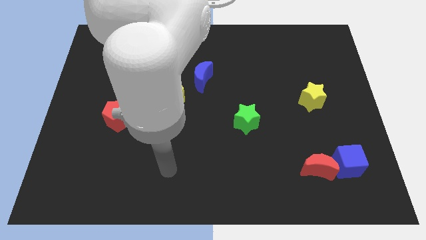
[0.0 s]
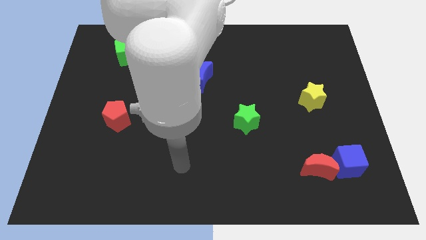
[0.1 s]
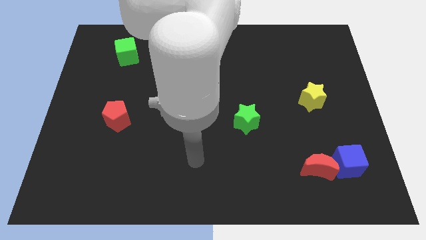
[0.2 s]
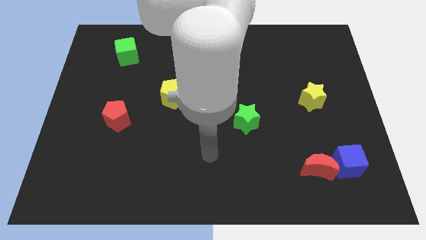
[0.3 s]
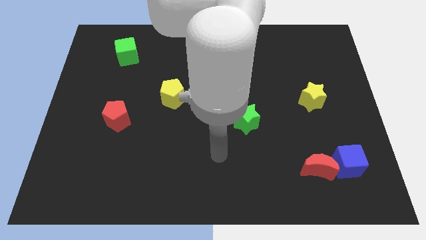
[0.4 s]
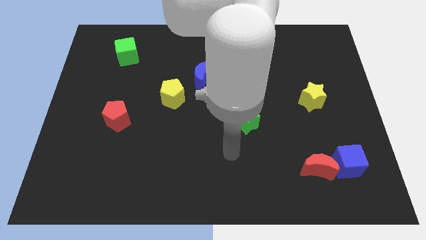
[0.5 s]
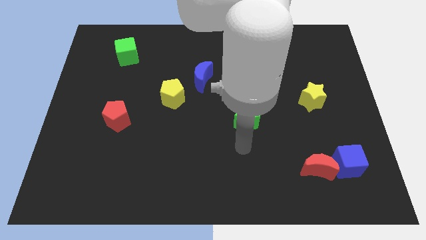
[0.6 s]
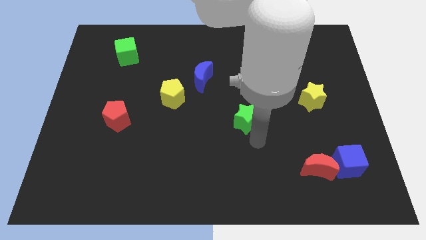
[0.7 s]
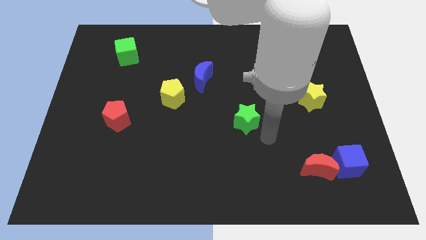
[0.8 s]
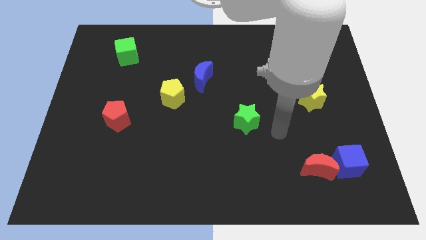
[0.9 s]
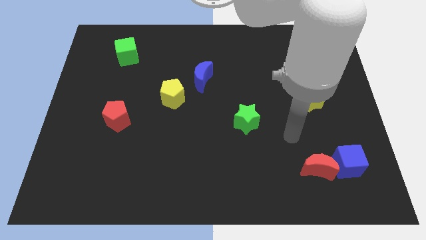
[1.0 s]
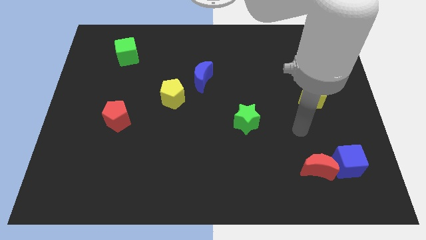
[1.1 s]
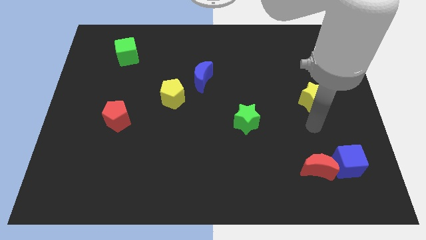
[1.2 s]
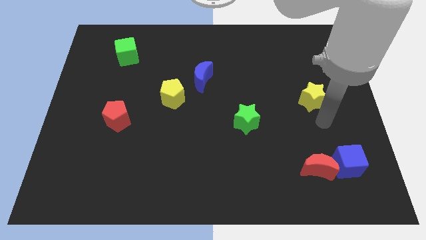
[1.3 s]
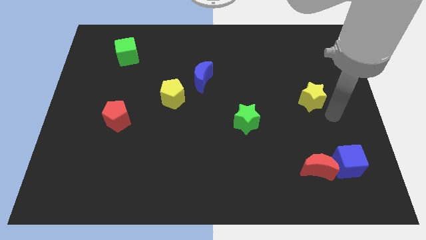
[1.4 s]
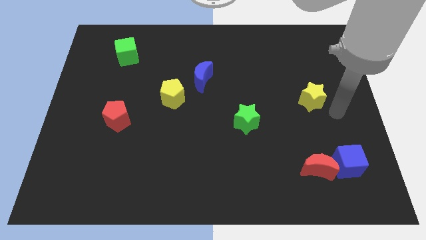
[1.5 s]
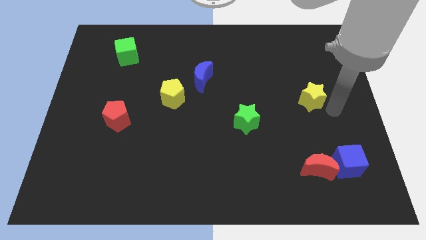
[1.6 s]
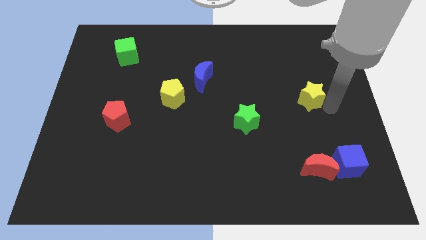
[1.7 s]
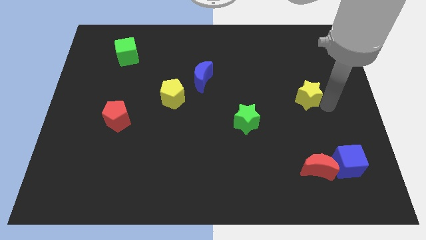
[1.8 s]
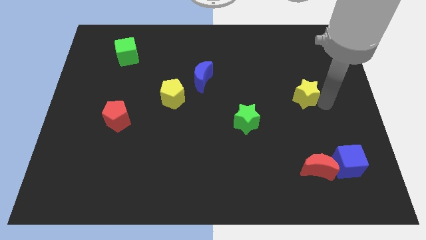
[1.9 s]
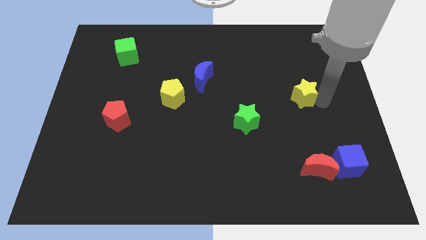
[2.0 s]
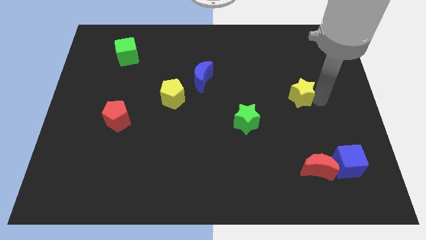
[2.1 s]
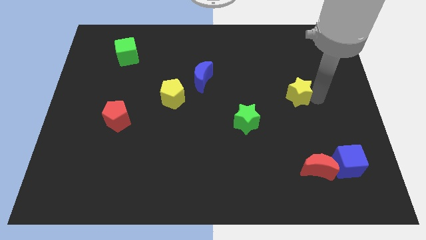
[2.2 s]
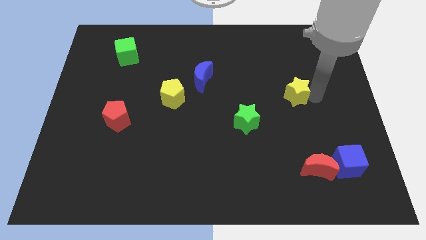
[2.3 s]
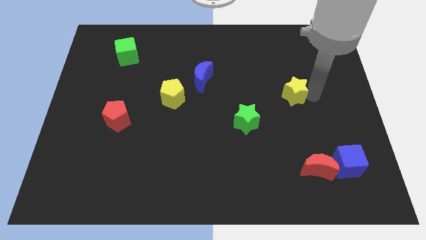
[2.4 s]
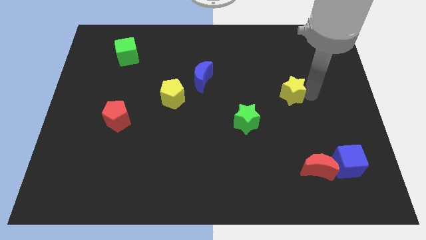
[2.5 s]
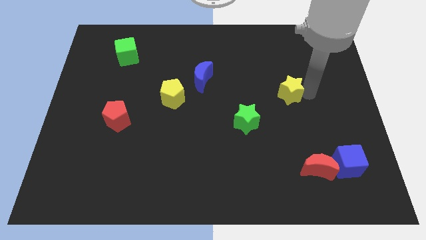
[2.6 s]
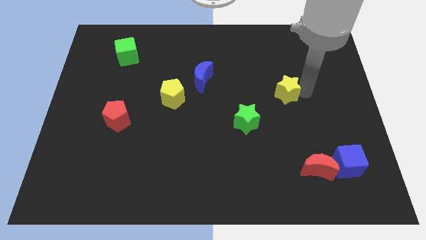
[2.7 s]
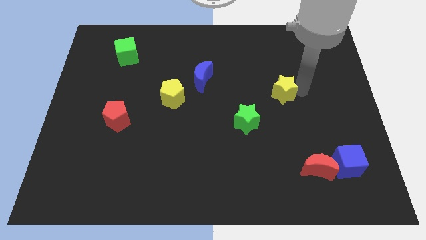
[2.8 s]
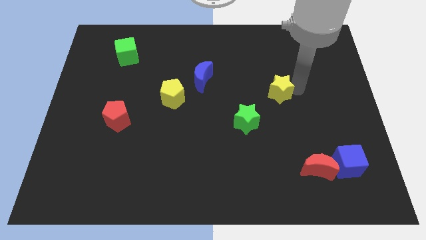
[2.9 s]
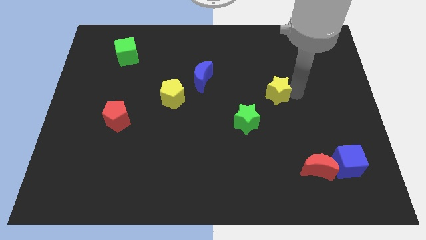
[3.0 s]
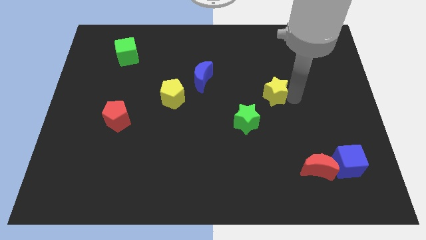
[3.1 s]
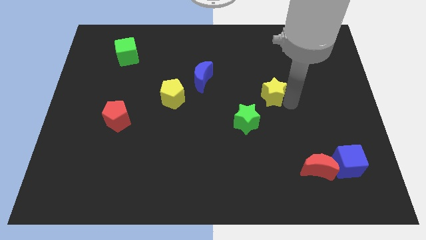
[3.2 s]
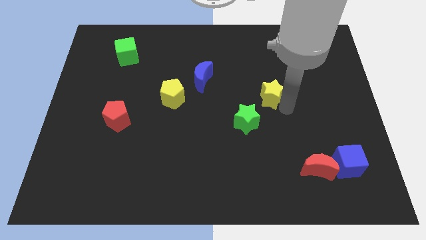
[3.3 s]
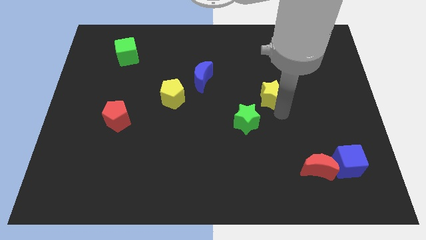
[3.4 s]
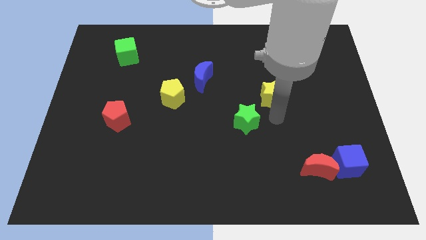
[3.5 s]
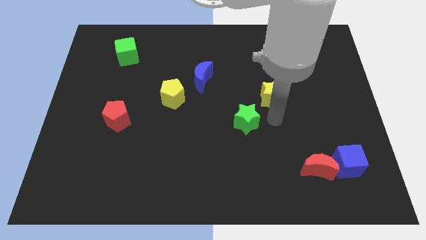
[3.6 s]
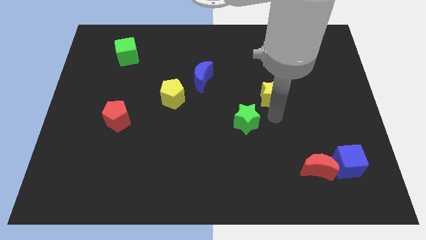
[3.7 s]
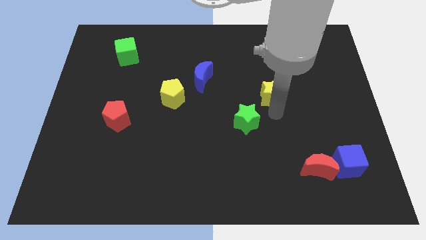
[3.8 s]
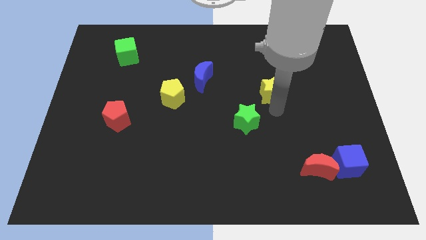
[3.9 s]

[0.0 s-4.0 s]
push the yellow star a little bit upwards and left diagonally

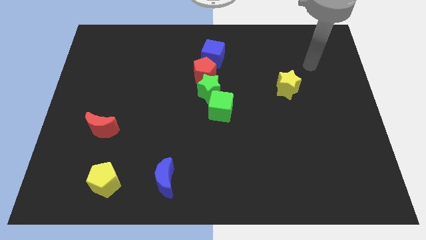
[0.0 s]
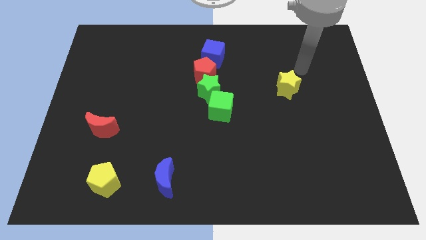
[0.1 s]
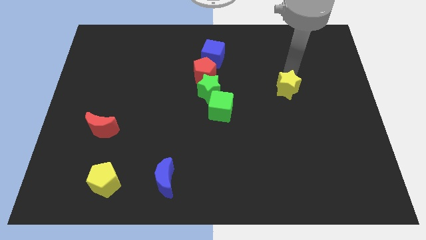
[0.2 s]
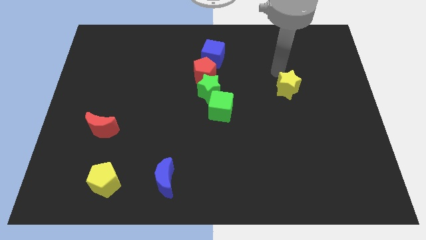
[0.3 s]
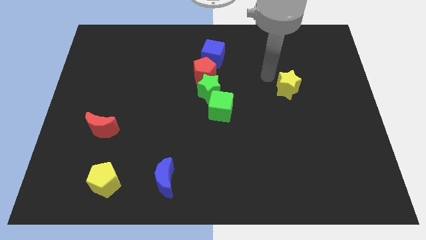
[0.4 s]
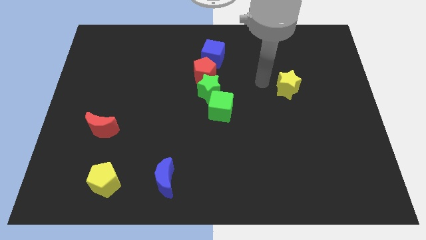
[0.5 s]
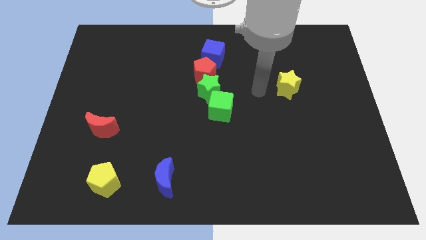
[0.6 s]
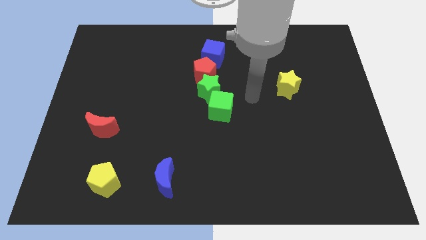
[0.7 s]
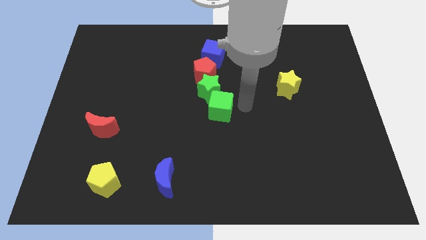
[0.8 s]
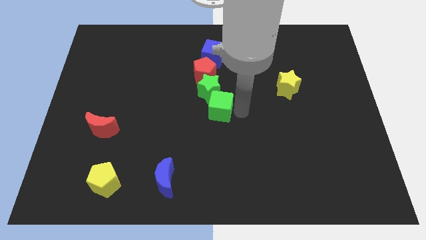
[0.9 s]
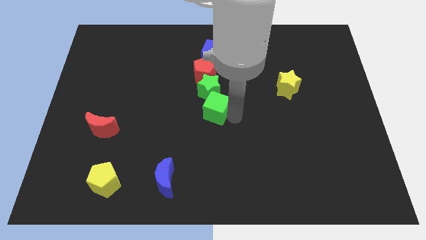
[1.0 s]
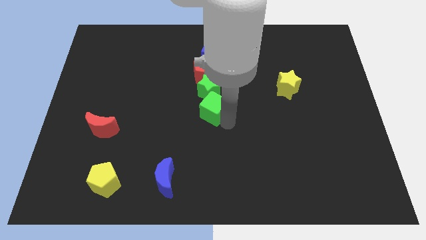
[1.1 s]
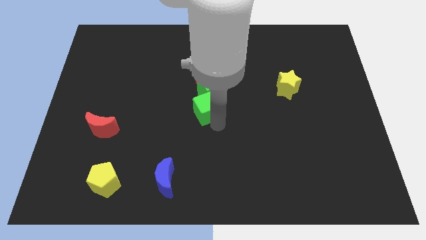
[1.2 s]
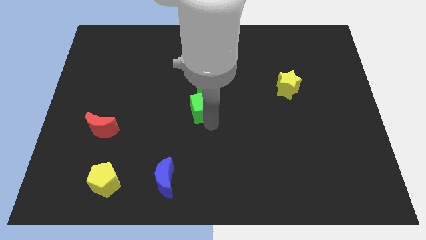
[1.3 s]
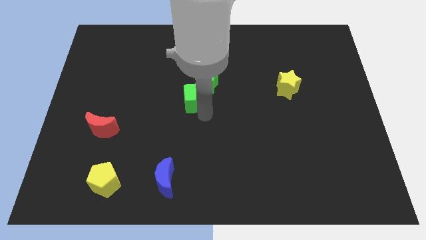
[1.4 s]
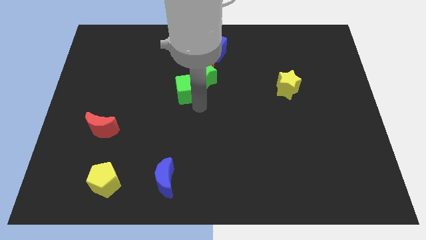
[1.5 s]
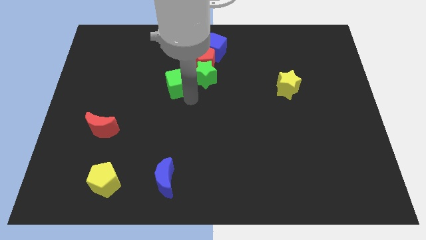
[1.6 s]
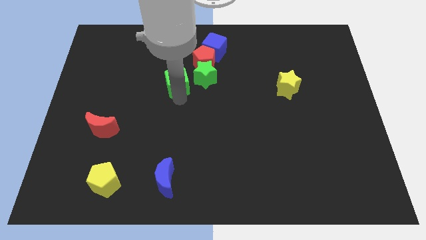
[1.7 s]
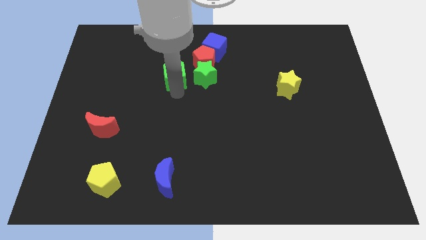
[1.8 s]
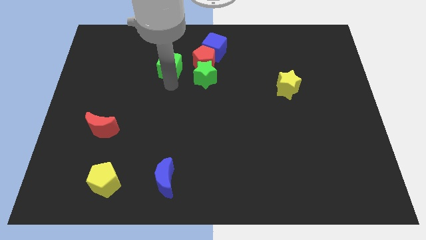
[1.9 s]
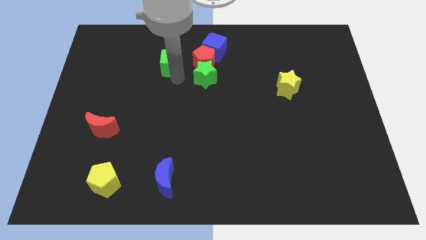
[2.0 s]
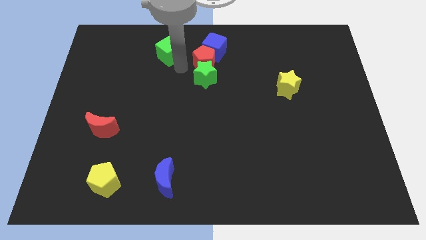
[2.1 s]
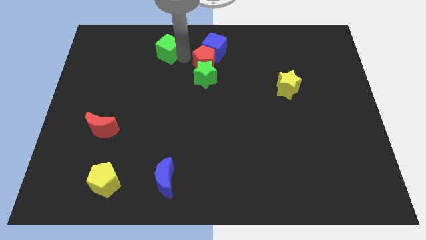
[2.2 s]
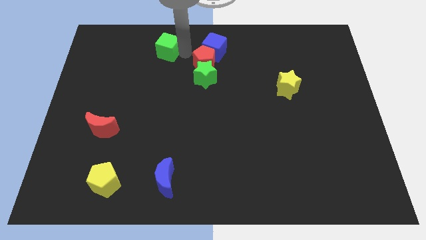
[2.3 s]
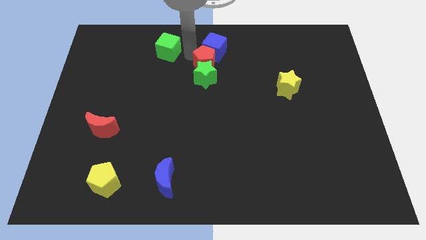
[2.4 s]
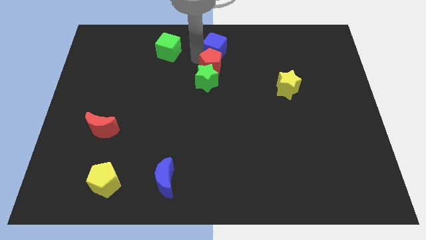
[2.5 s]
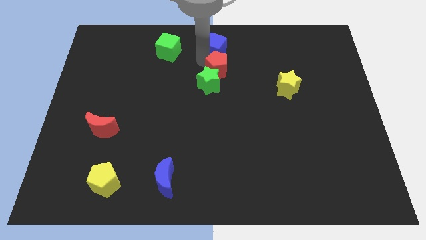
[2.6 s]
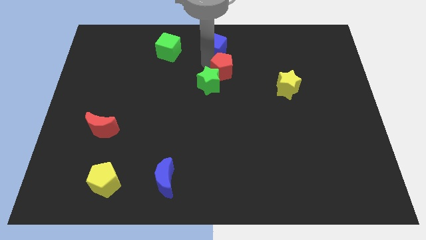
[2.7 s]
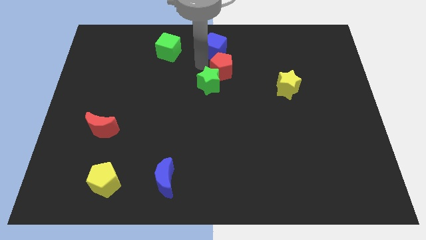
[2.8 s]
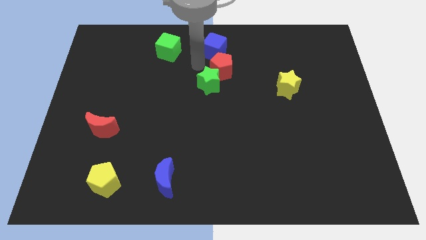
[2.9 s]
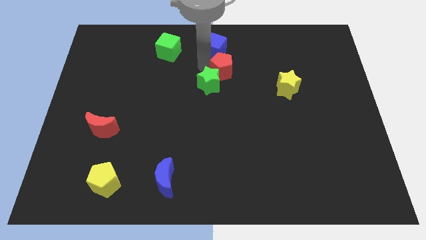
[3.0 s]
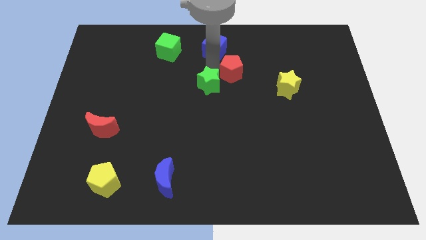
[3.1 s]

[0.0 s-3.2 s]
push the red pentagon a little bit right

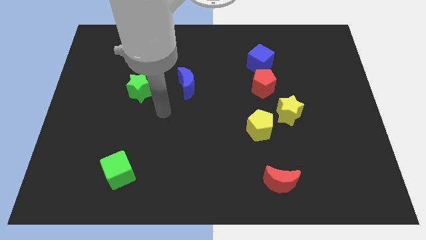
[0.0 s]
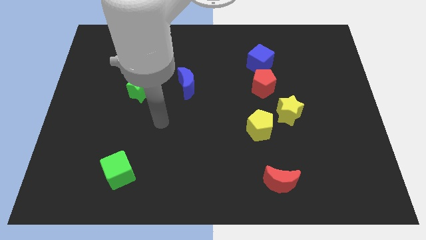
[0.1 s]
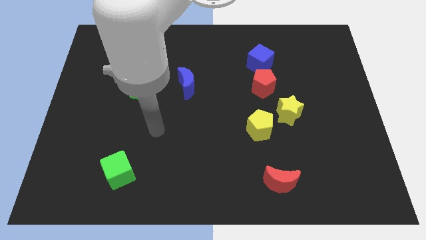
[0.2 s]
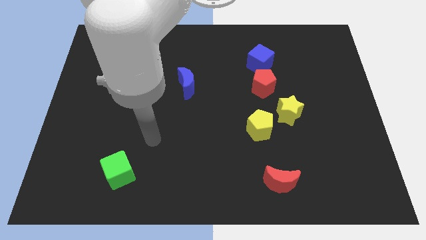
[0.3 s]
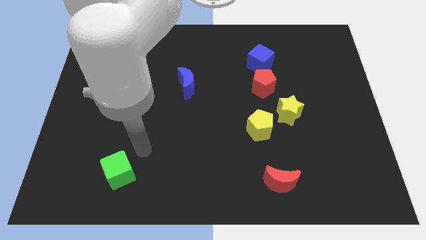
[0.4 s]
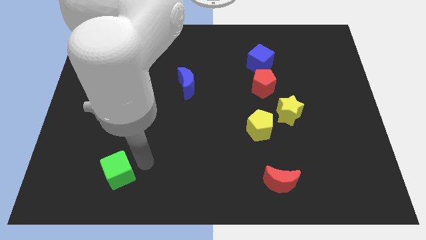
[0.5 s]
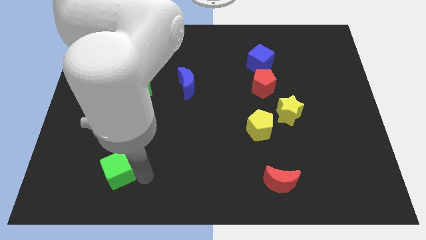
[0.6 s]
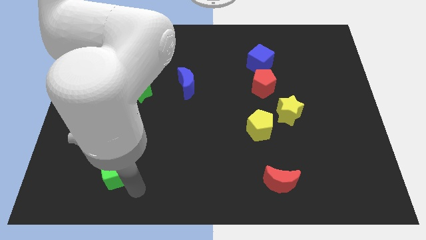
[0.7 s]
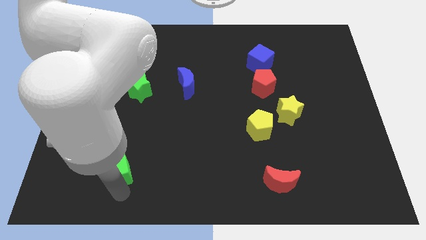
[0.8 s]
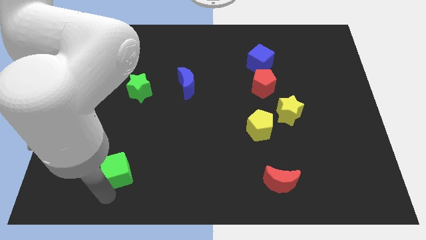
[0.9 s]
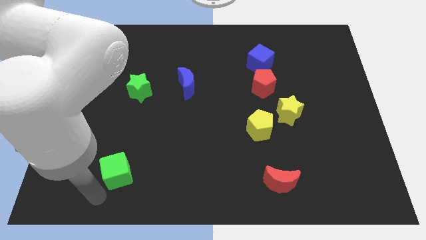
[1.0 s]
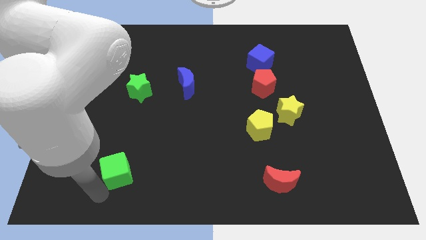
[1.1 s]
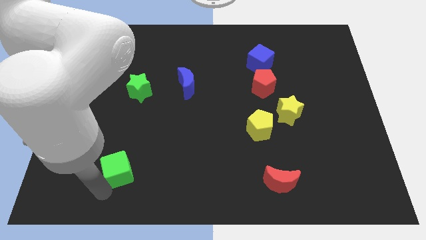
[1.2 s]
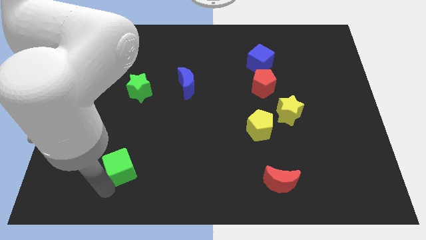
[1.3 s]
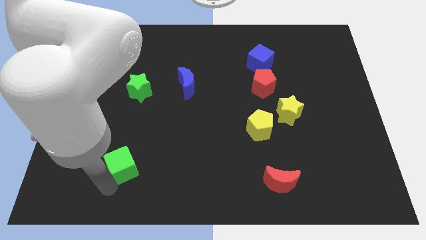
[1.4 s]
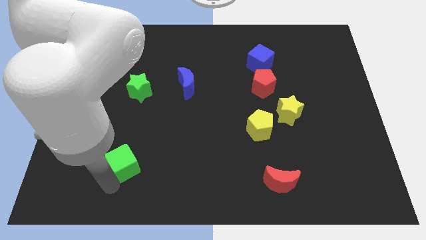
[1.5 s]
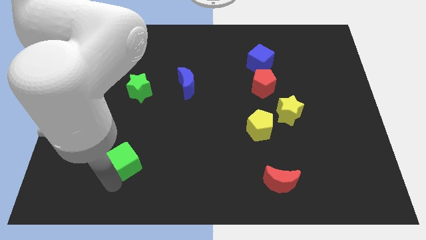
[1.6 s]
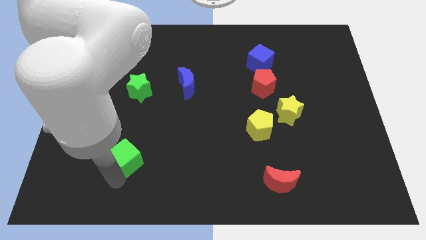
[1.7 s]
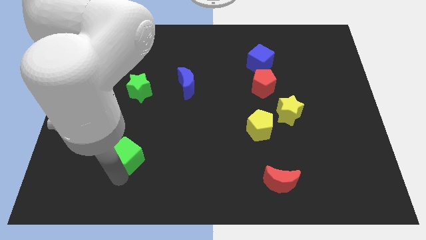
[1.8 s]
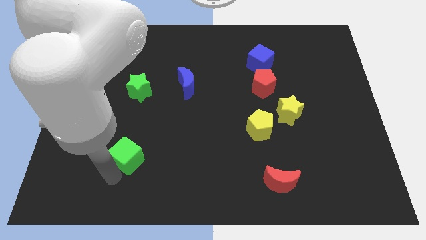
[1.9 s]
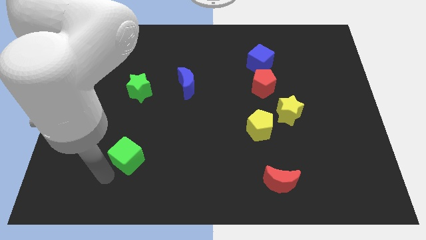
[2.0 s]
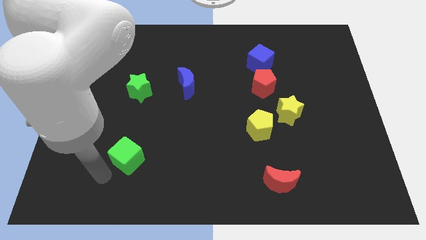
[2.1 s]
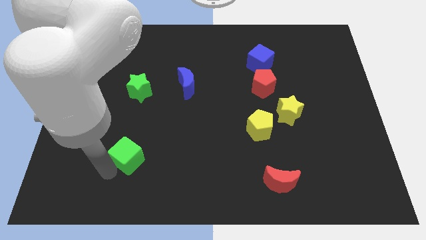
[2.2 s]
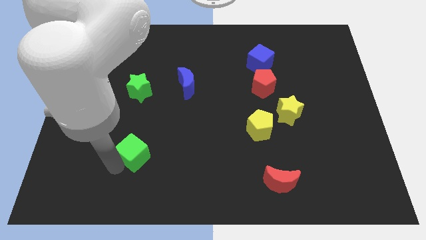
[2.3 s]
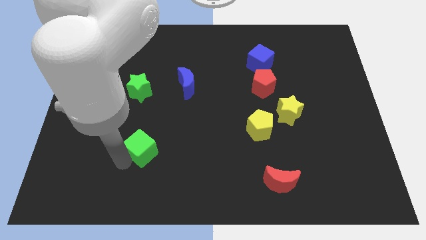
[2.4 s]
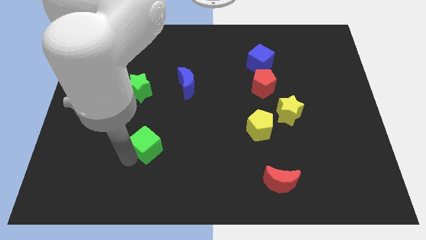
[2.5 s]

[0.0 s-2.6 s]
move the green cube upwards and then right a little
